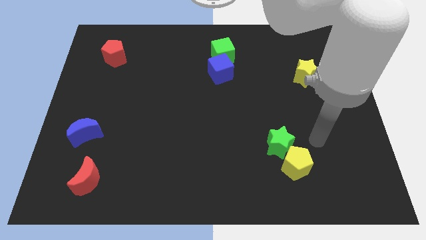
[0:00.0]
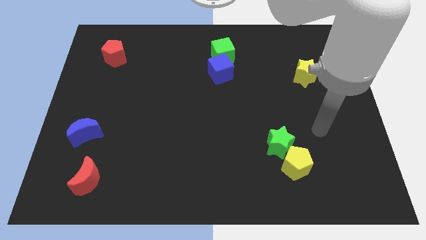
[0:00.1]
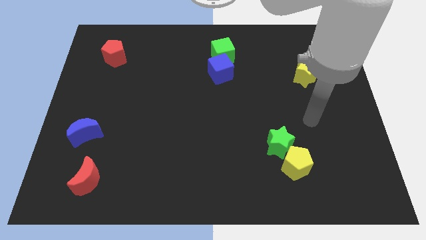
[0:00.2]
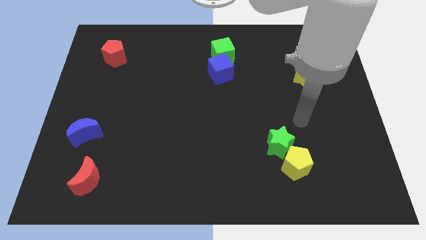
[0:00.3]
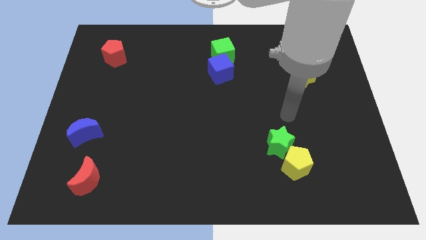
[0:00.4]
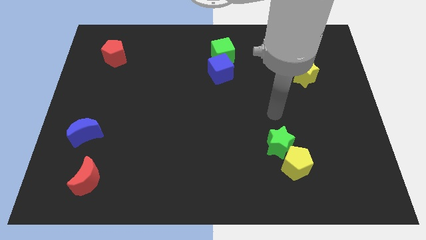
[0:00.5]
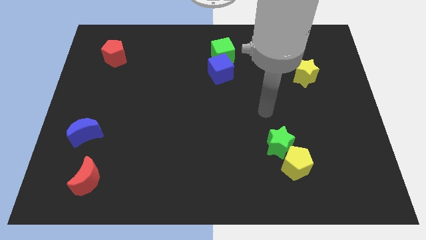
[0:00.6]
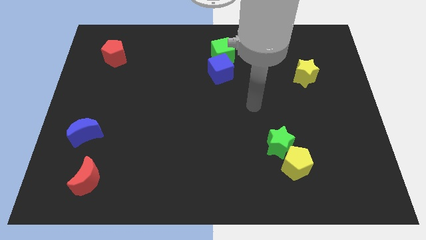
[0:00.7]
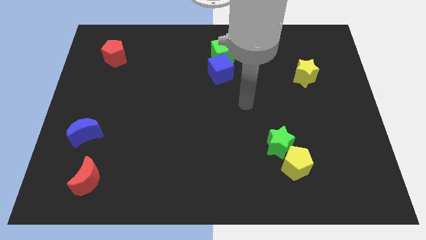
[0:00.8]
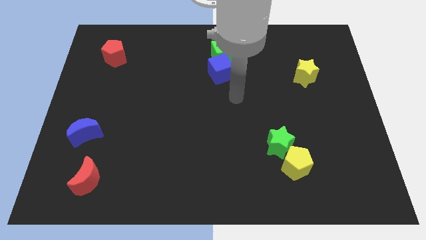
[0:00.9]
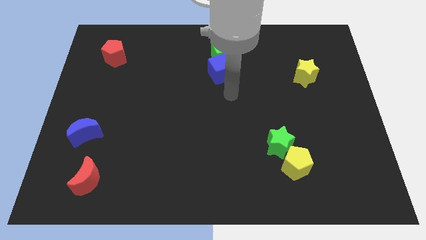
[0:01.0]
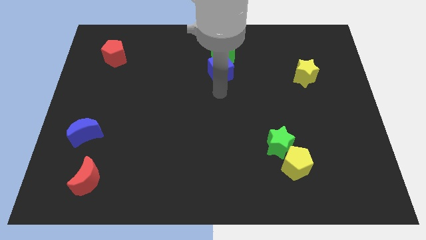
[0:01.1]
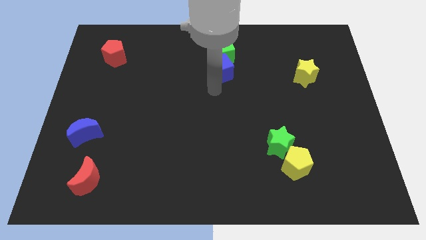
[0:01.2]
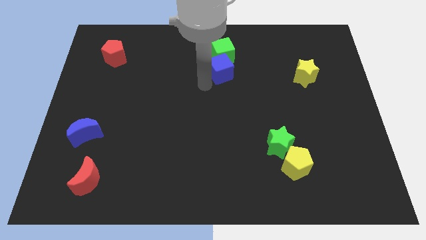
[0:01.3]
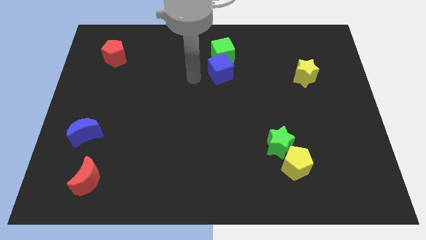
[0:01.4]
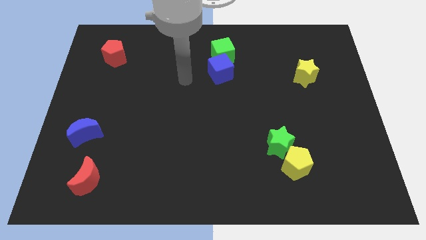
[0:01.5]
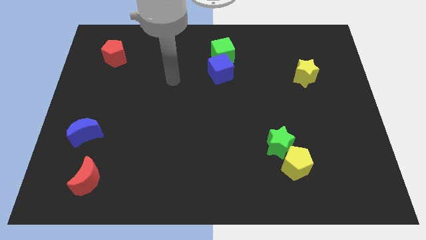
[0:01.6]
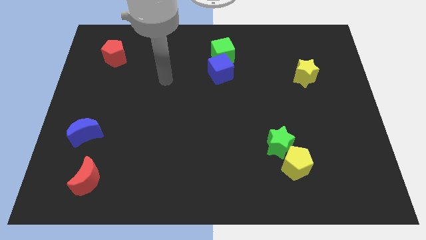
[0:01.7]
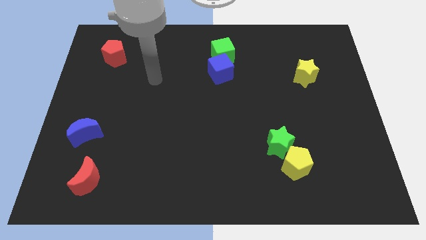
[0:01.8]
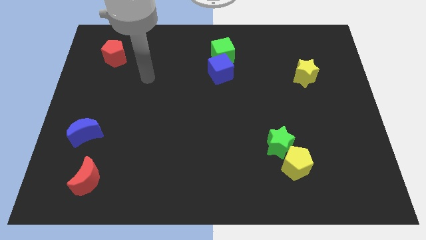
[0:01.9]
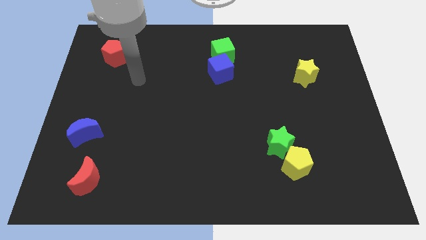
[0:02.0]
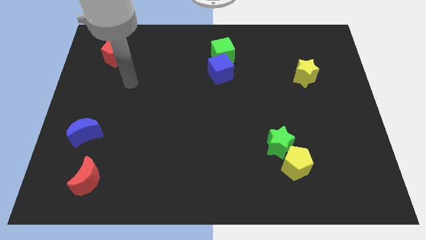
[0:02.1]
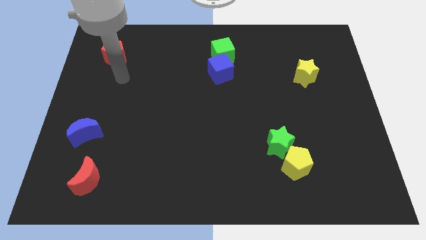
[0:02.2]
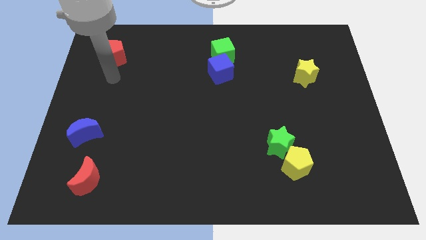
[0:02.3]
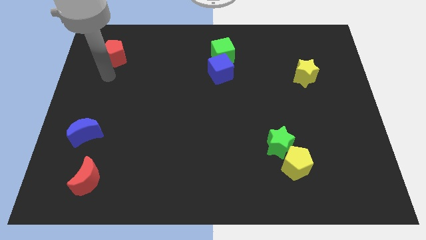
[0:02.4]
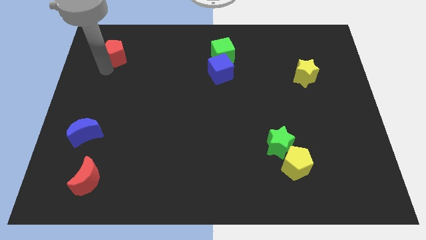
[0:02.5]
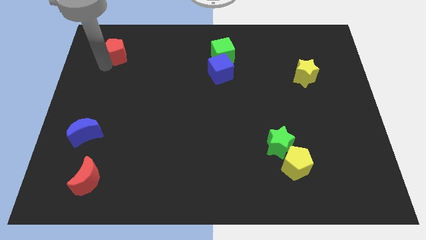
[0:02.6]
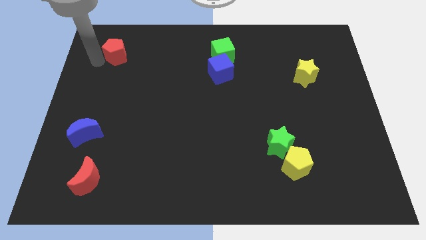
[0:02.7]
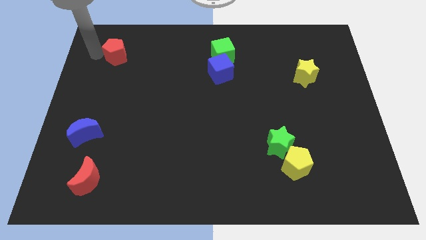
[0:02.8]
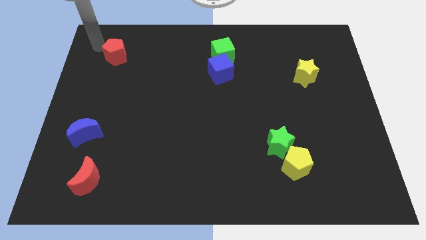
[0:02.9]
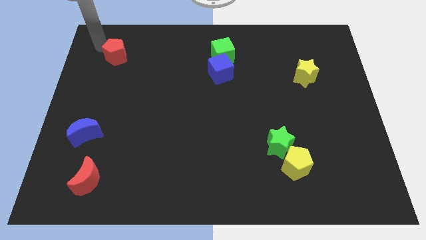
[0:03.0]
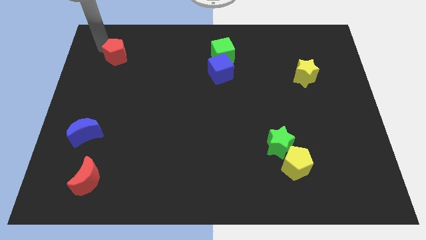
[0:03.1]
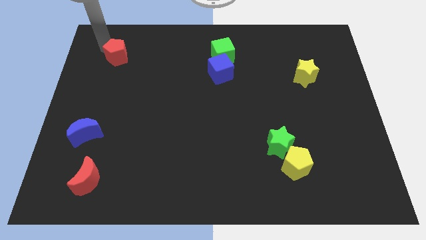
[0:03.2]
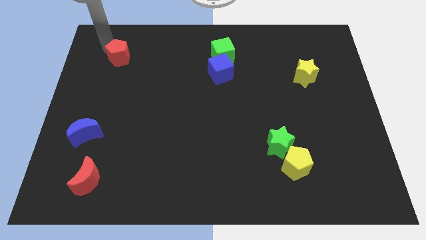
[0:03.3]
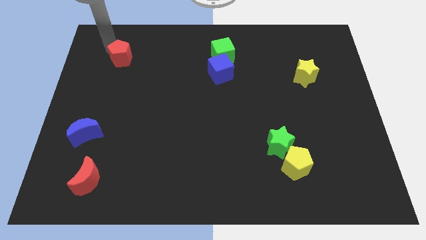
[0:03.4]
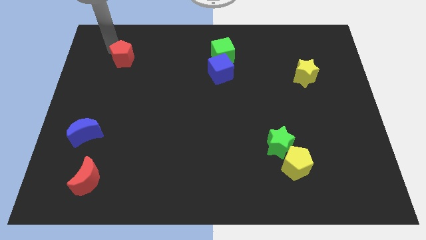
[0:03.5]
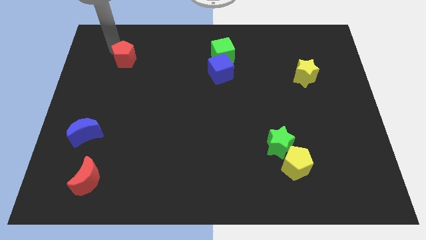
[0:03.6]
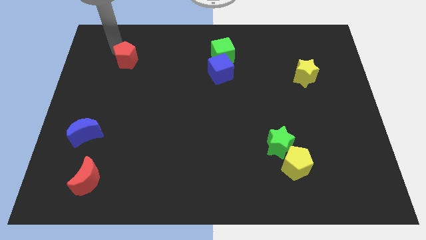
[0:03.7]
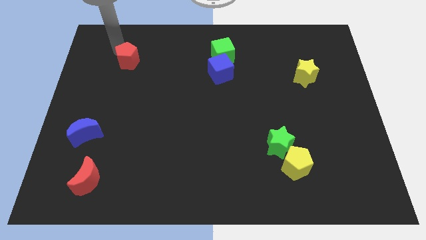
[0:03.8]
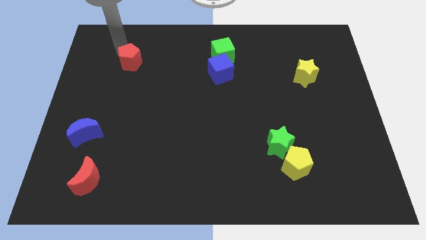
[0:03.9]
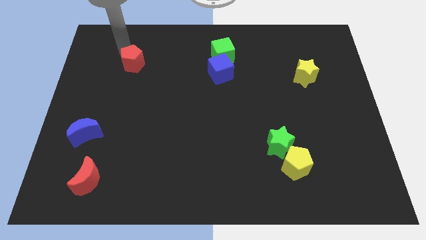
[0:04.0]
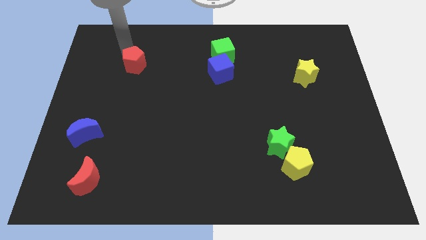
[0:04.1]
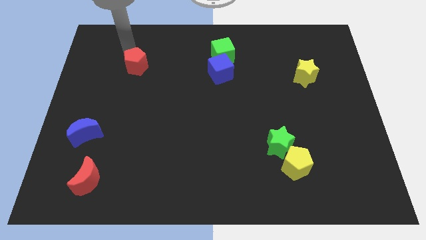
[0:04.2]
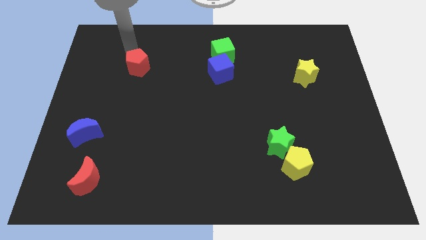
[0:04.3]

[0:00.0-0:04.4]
move the red pentagon somewhat downwards and to the right

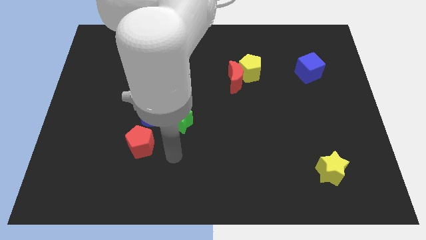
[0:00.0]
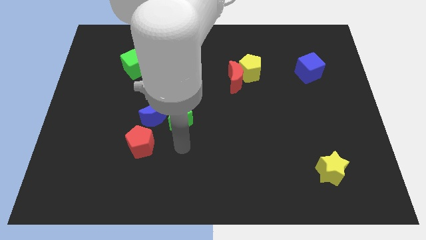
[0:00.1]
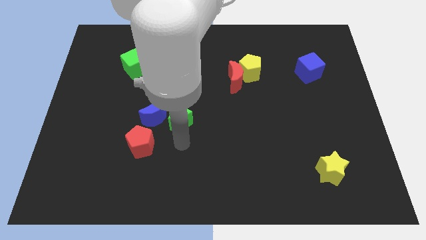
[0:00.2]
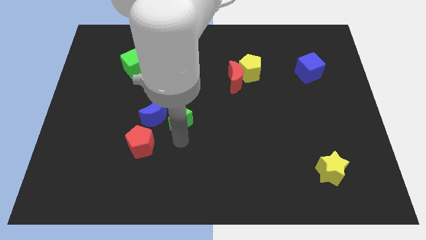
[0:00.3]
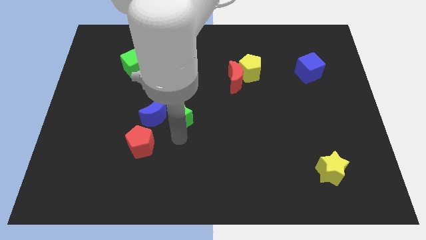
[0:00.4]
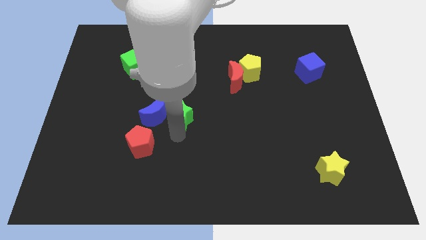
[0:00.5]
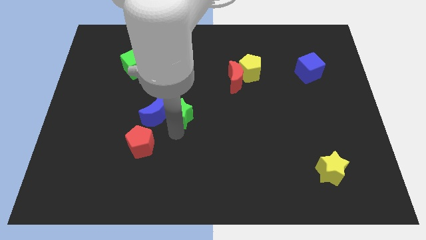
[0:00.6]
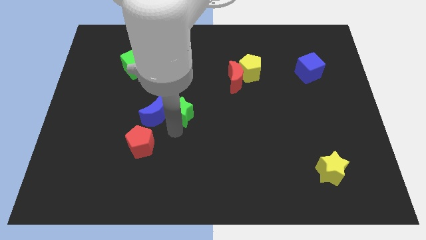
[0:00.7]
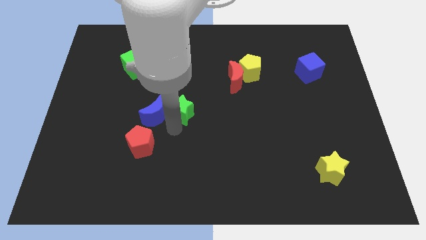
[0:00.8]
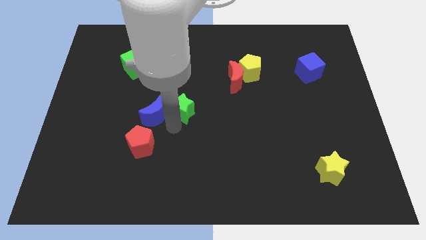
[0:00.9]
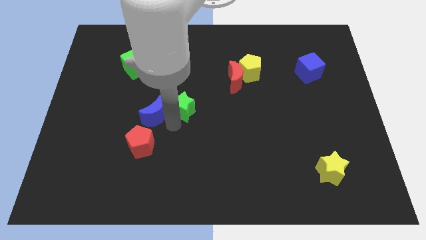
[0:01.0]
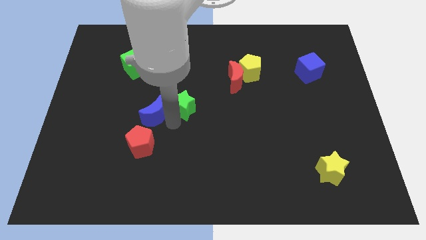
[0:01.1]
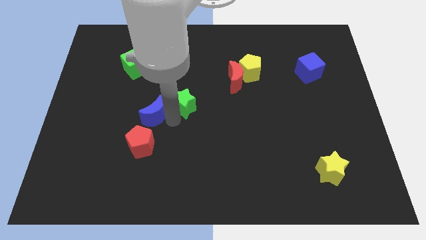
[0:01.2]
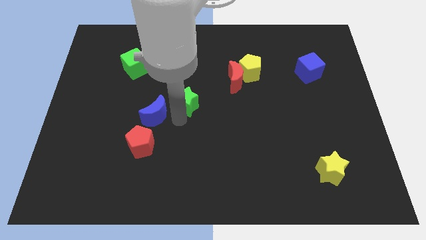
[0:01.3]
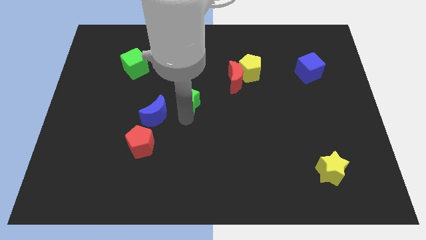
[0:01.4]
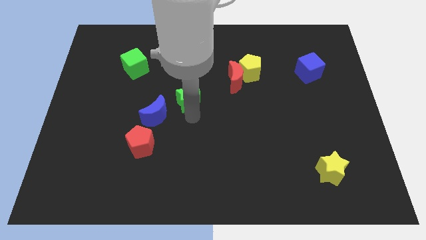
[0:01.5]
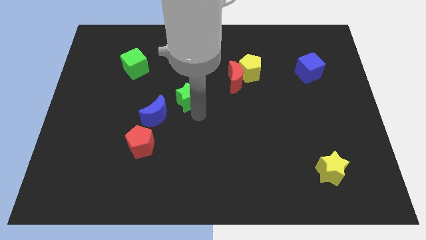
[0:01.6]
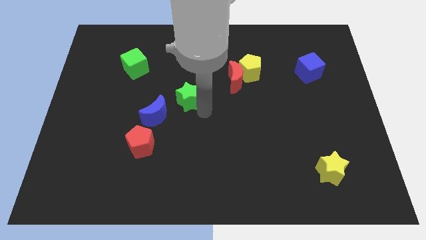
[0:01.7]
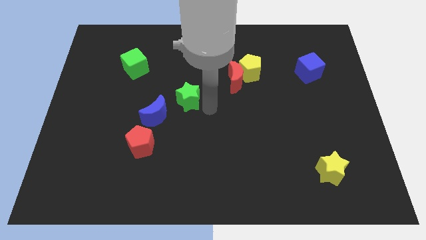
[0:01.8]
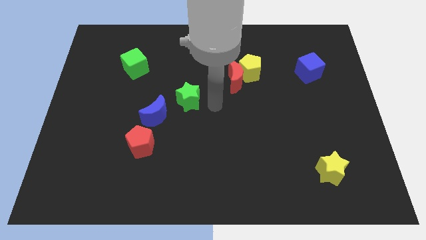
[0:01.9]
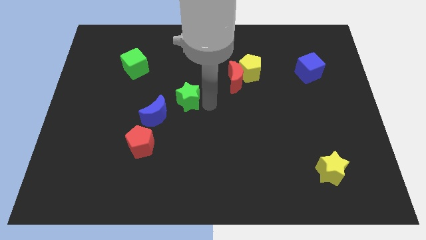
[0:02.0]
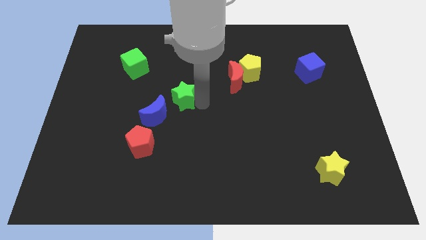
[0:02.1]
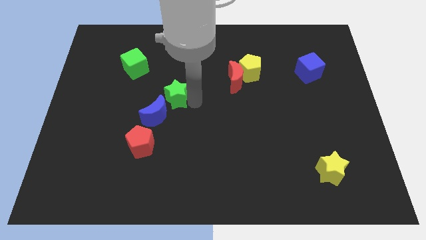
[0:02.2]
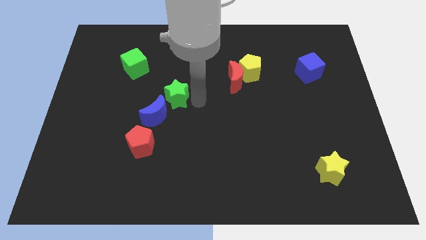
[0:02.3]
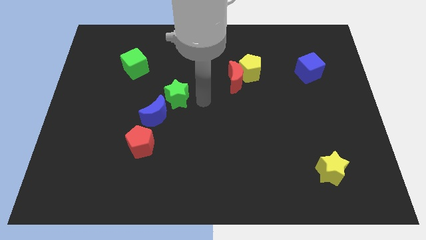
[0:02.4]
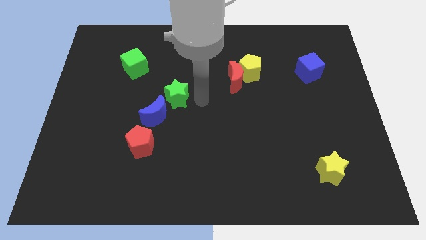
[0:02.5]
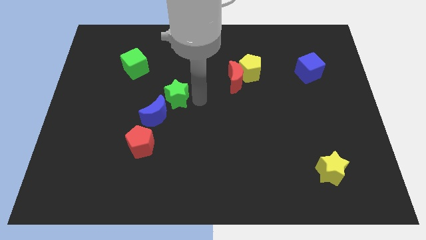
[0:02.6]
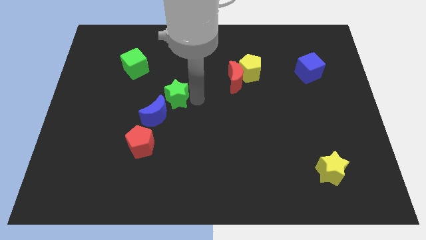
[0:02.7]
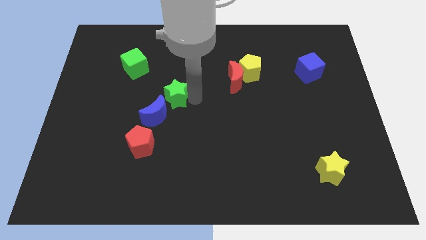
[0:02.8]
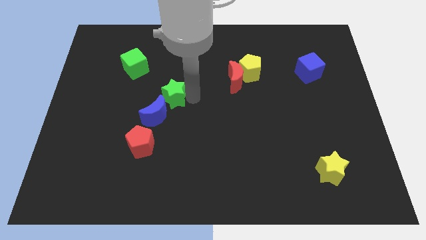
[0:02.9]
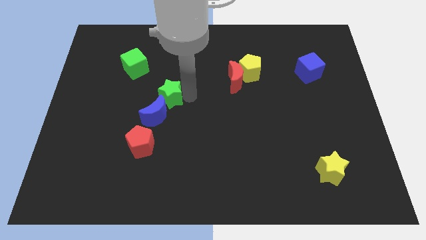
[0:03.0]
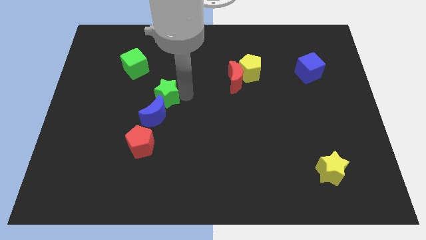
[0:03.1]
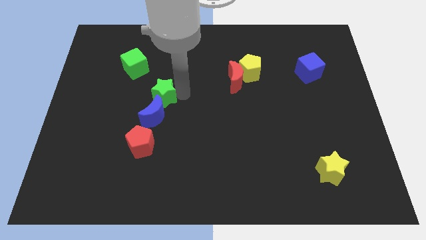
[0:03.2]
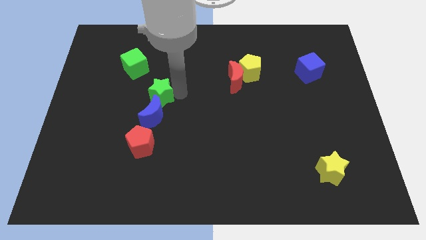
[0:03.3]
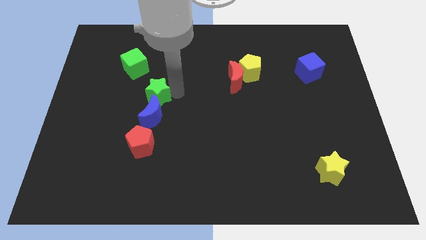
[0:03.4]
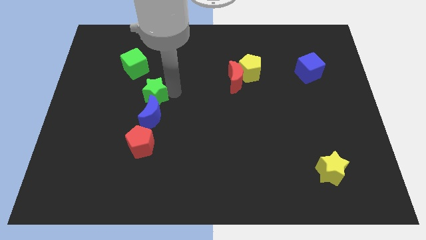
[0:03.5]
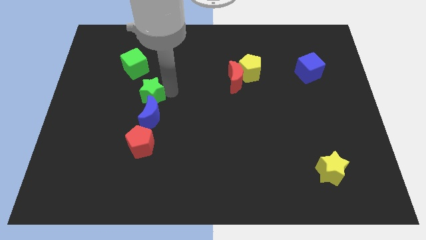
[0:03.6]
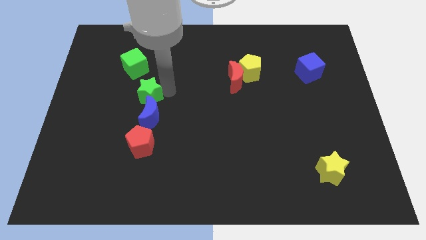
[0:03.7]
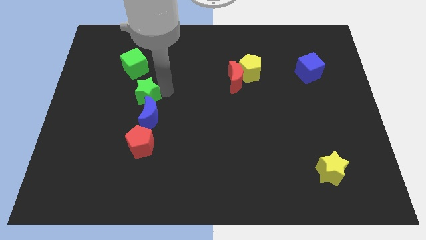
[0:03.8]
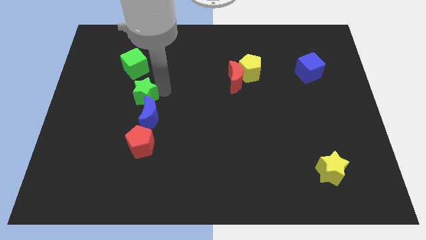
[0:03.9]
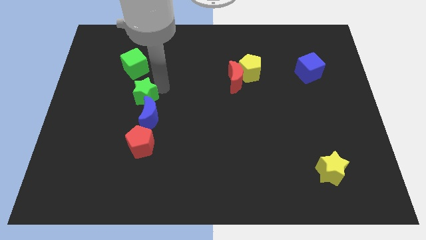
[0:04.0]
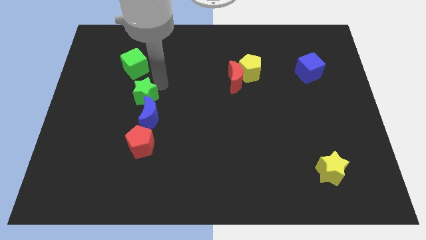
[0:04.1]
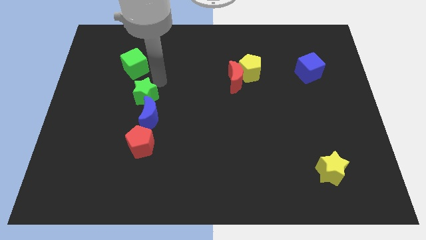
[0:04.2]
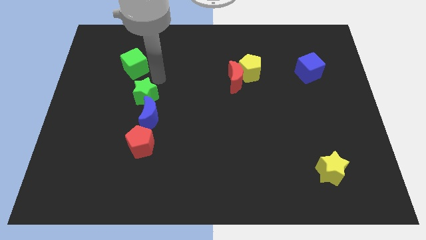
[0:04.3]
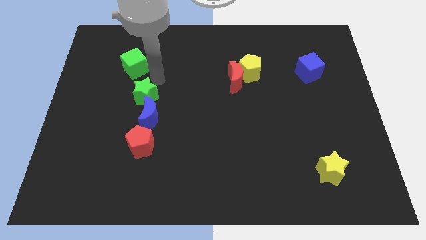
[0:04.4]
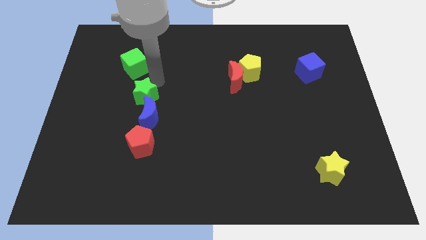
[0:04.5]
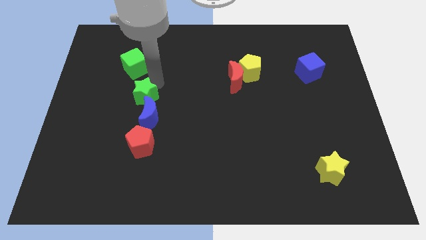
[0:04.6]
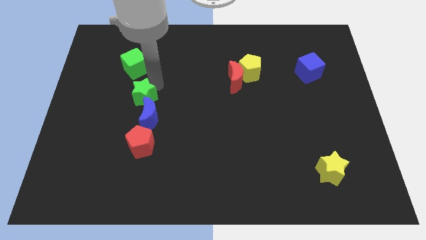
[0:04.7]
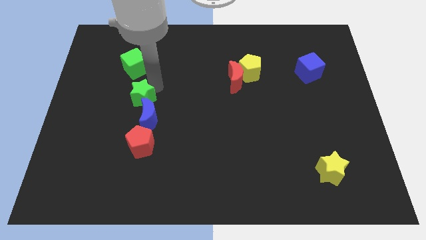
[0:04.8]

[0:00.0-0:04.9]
move the green star slightly to the left
